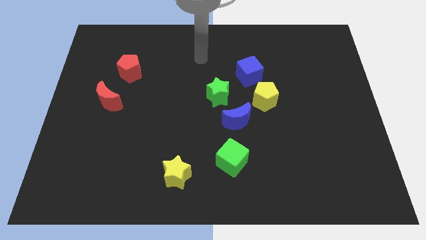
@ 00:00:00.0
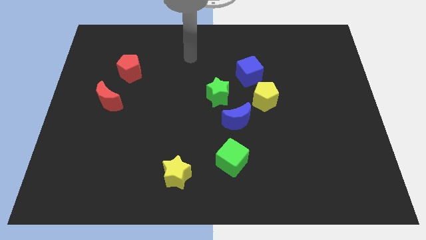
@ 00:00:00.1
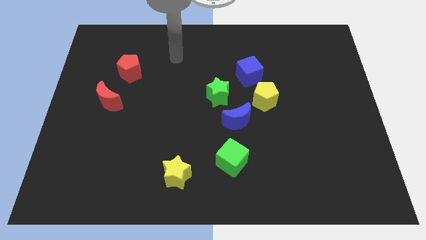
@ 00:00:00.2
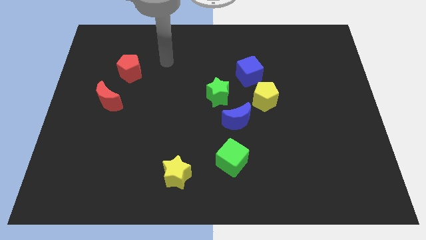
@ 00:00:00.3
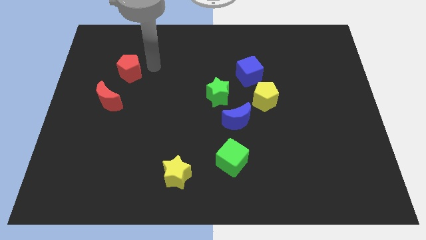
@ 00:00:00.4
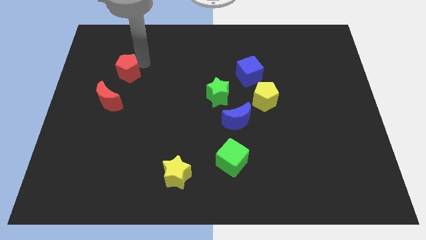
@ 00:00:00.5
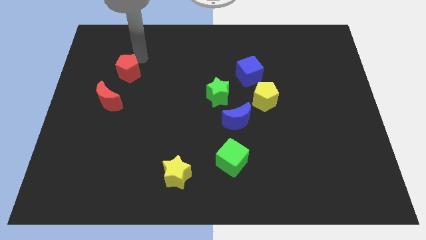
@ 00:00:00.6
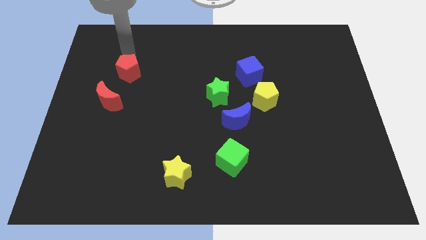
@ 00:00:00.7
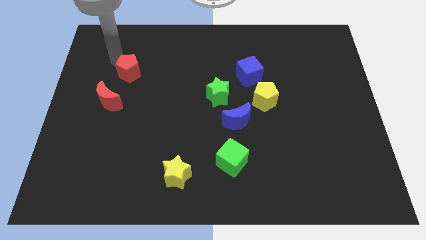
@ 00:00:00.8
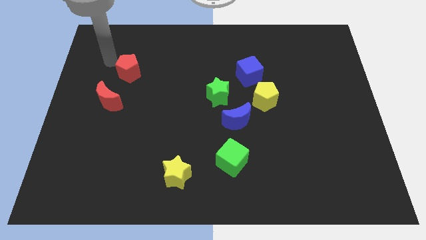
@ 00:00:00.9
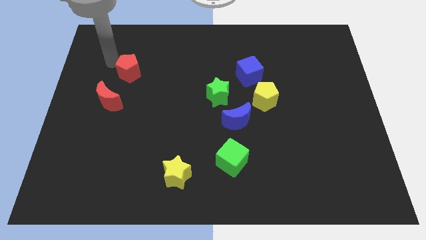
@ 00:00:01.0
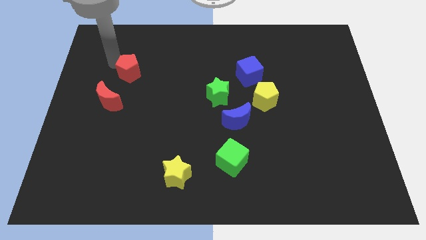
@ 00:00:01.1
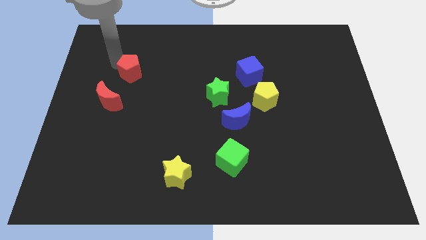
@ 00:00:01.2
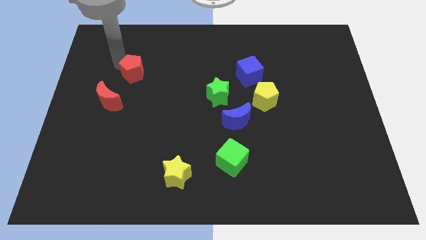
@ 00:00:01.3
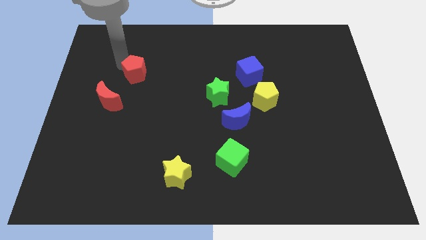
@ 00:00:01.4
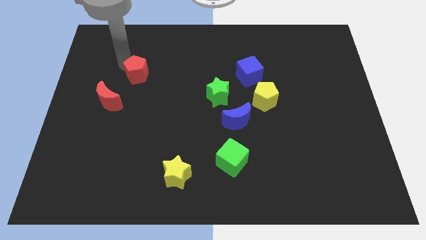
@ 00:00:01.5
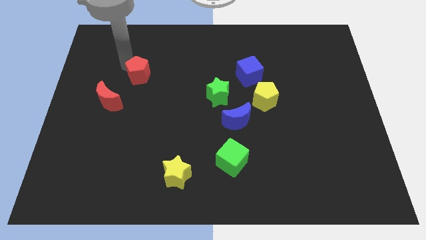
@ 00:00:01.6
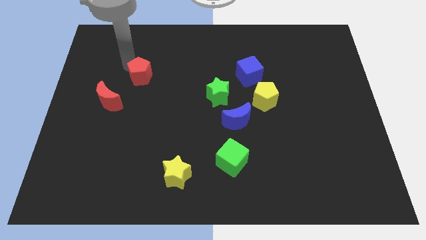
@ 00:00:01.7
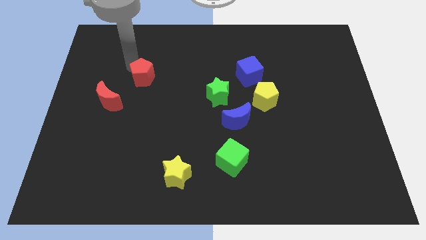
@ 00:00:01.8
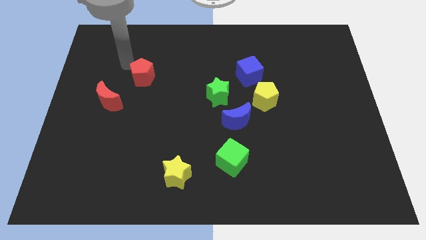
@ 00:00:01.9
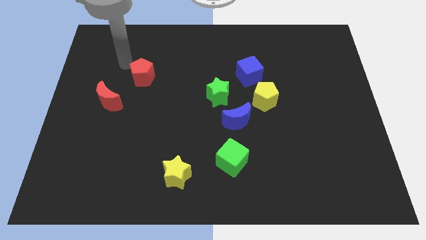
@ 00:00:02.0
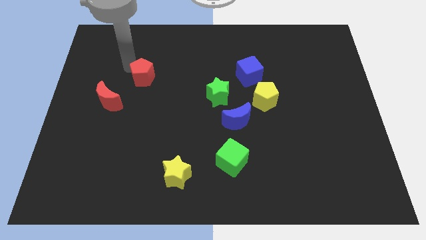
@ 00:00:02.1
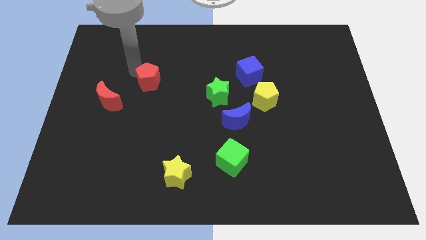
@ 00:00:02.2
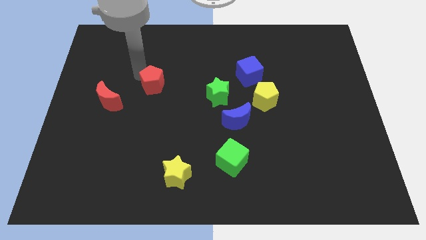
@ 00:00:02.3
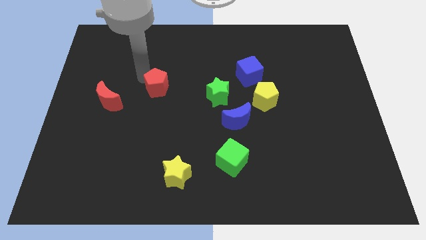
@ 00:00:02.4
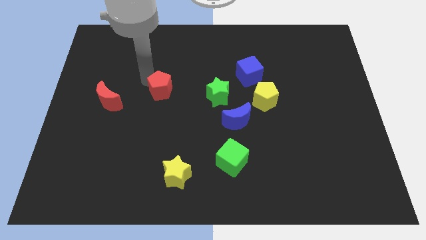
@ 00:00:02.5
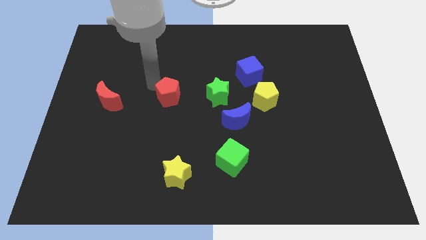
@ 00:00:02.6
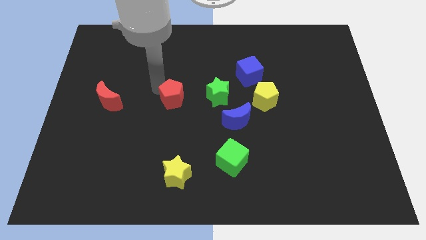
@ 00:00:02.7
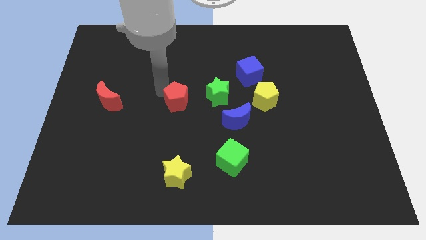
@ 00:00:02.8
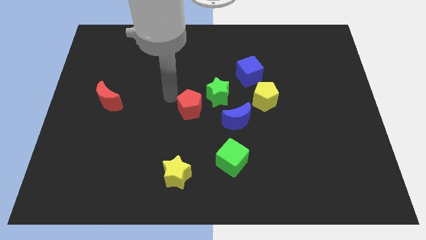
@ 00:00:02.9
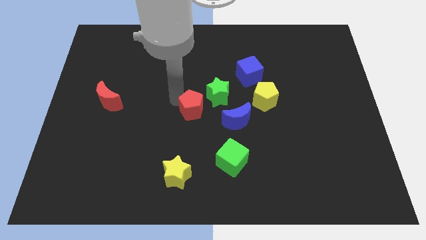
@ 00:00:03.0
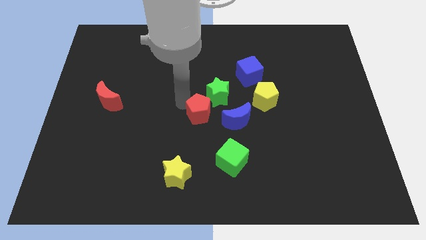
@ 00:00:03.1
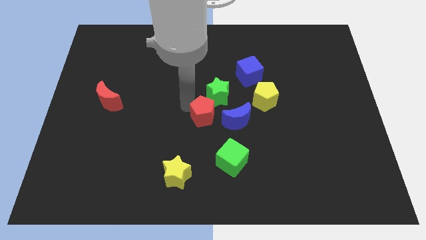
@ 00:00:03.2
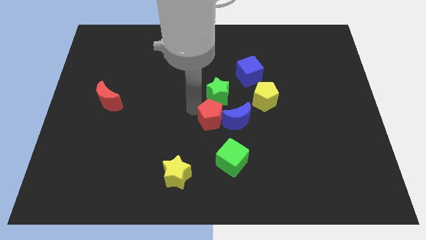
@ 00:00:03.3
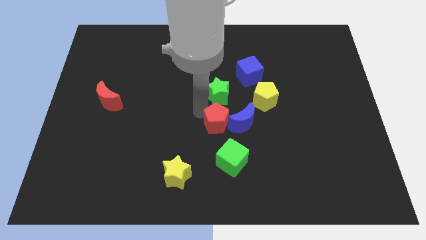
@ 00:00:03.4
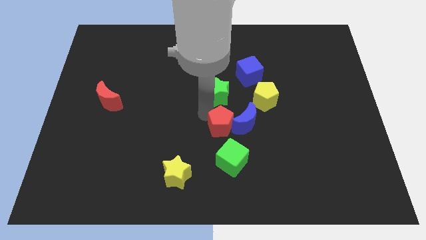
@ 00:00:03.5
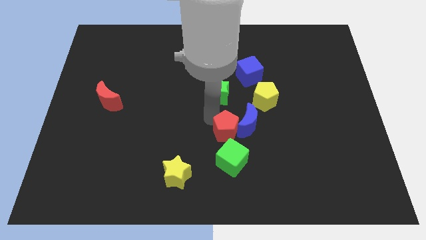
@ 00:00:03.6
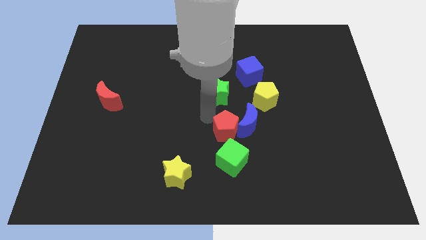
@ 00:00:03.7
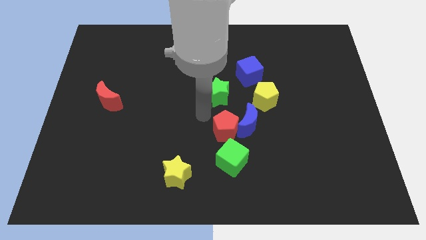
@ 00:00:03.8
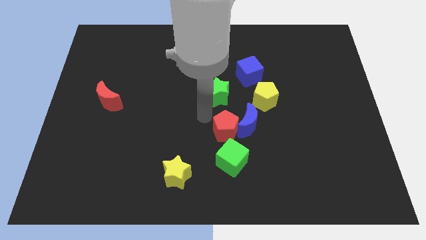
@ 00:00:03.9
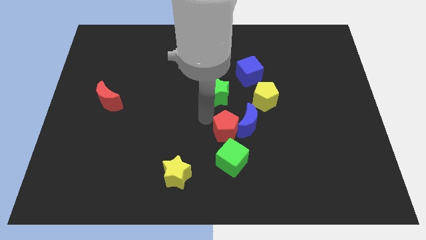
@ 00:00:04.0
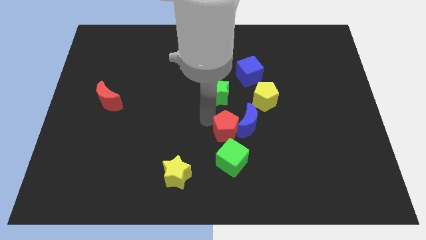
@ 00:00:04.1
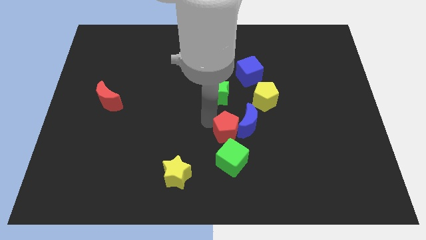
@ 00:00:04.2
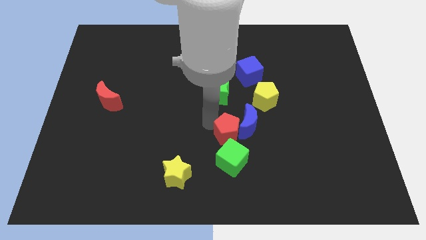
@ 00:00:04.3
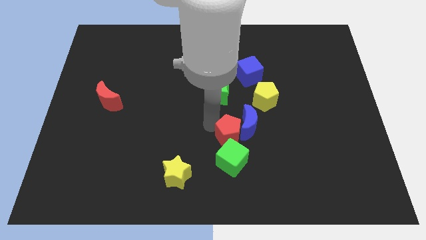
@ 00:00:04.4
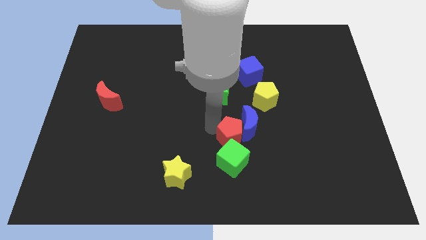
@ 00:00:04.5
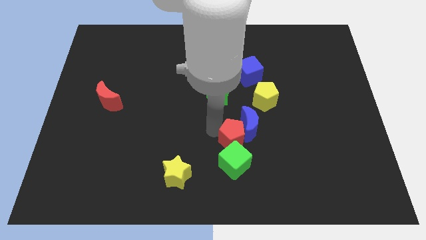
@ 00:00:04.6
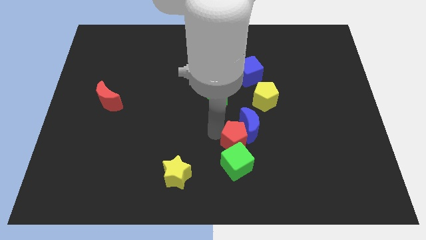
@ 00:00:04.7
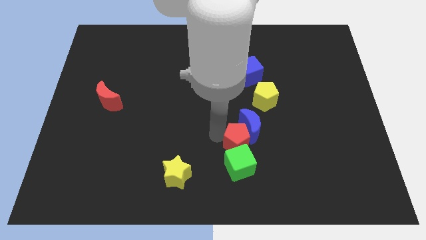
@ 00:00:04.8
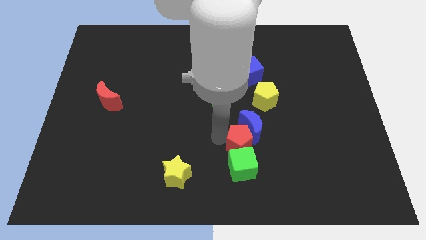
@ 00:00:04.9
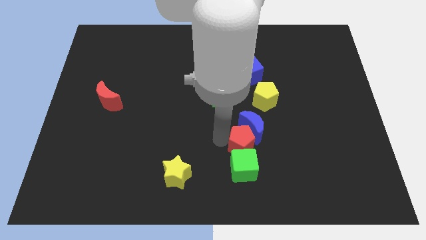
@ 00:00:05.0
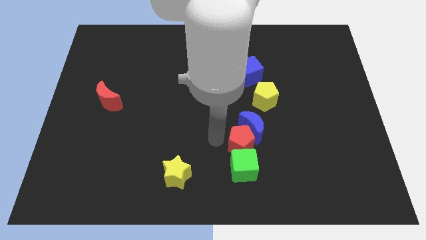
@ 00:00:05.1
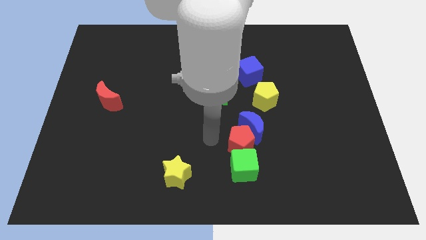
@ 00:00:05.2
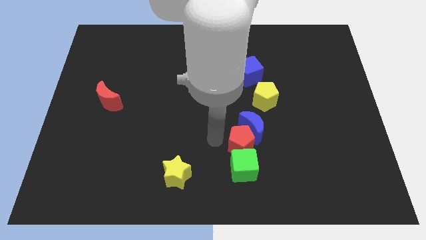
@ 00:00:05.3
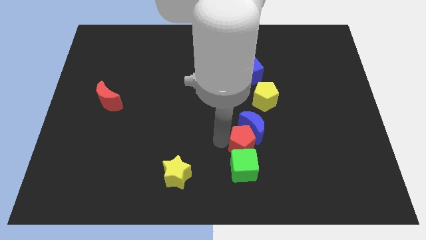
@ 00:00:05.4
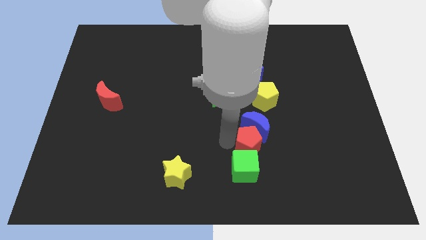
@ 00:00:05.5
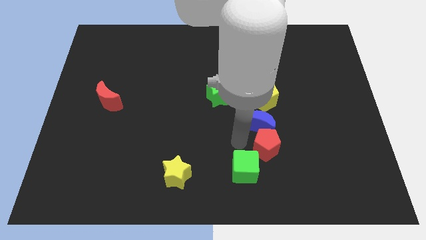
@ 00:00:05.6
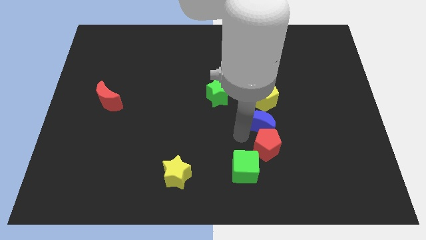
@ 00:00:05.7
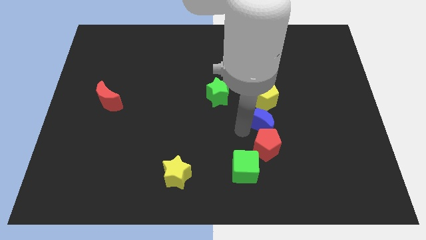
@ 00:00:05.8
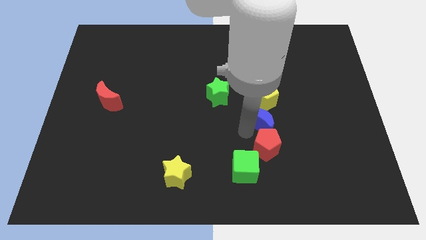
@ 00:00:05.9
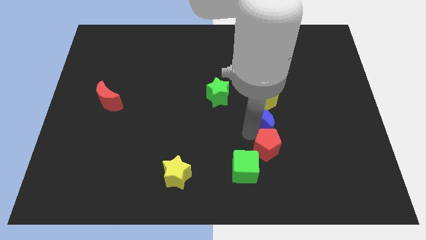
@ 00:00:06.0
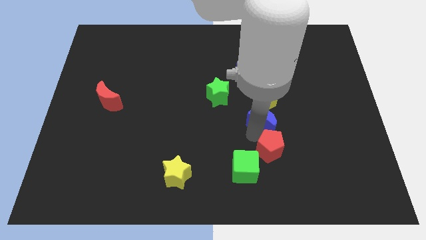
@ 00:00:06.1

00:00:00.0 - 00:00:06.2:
put the red pentagon right of the green cube

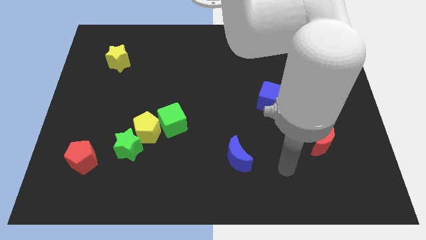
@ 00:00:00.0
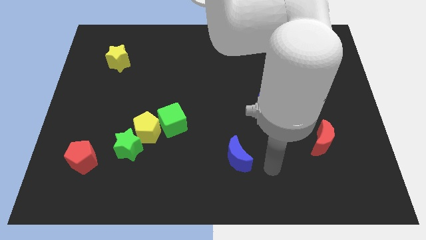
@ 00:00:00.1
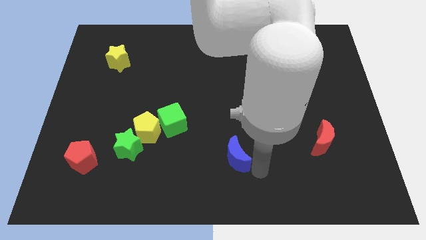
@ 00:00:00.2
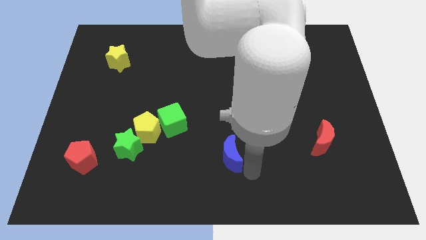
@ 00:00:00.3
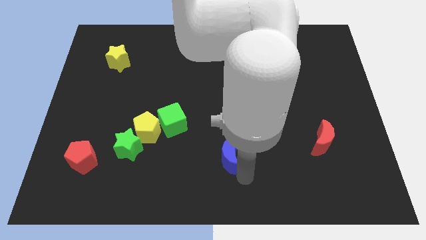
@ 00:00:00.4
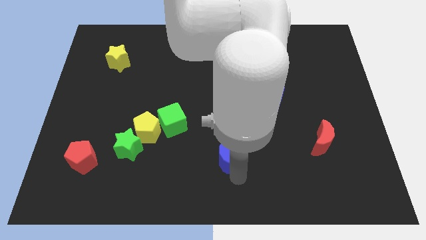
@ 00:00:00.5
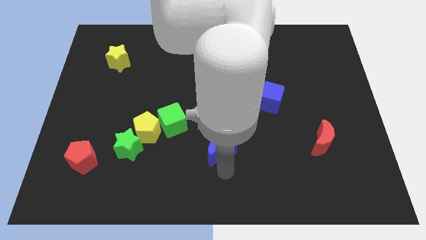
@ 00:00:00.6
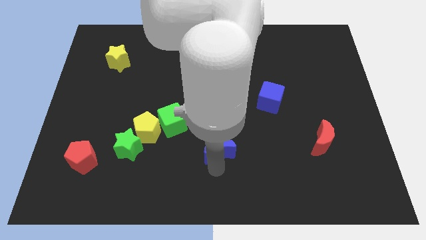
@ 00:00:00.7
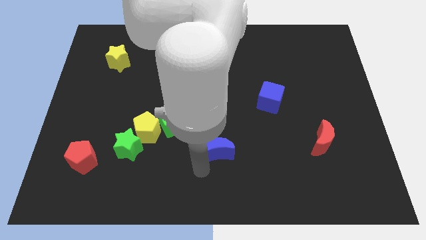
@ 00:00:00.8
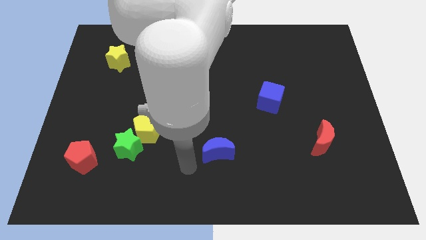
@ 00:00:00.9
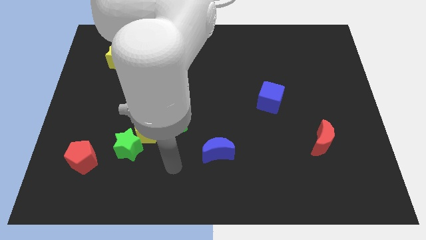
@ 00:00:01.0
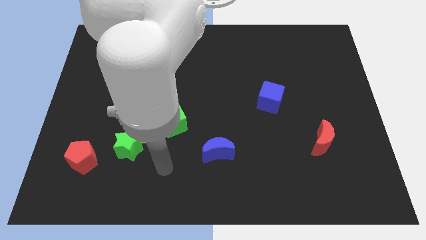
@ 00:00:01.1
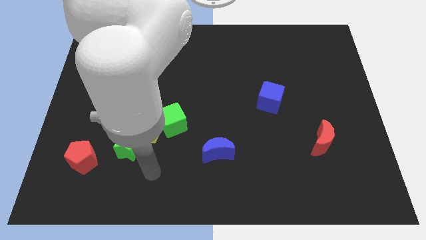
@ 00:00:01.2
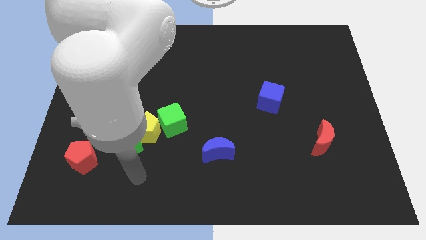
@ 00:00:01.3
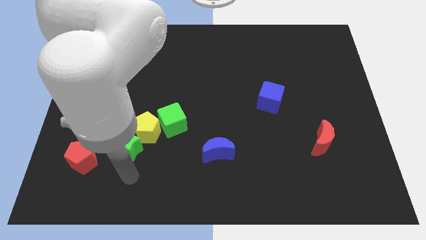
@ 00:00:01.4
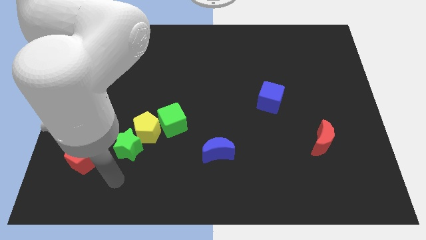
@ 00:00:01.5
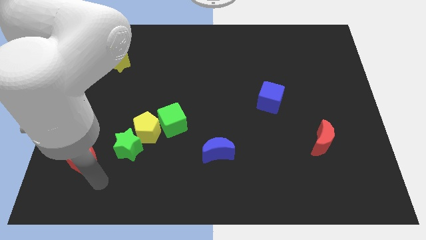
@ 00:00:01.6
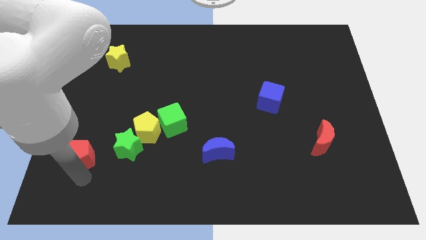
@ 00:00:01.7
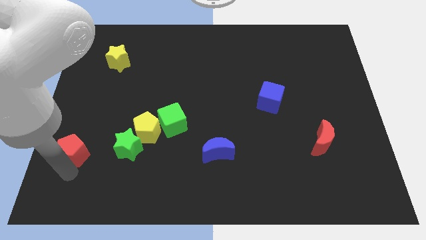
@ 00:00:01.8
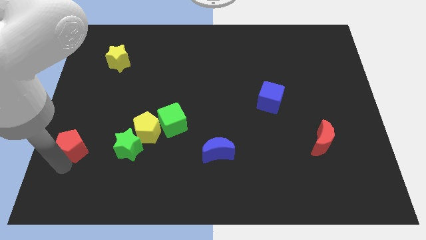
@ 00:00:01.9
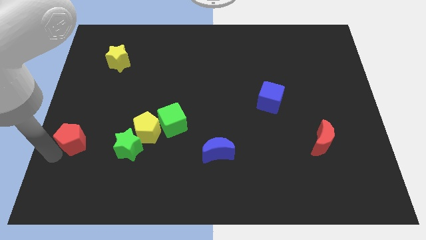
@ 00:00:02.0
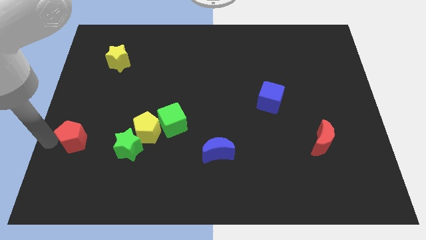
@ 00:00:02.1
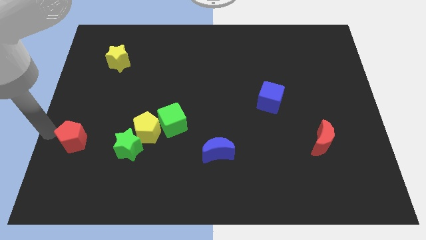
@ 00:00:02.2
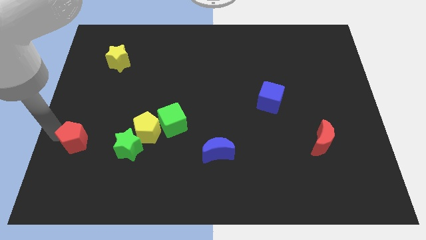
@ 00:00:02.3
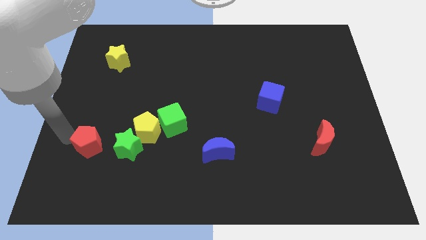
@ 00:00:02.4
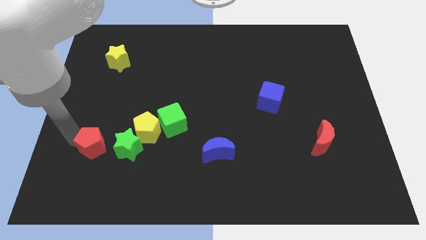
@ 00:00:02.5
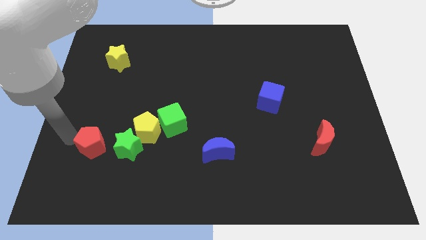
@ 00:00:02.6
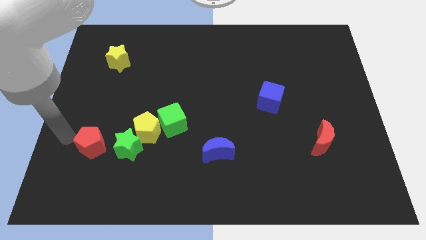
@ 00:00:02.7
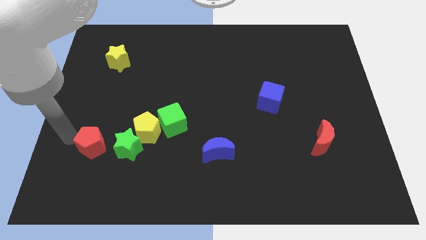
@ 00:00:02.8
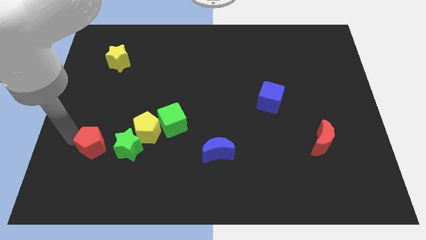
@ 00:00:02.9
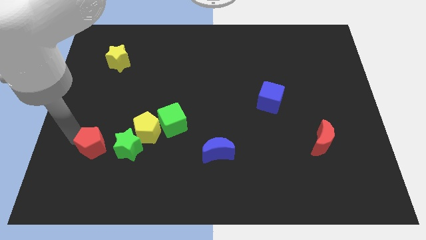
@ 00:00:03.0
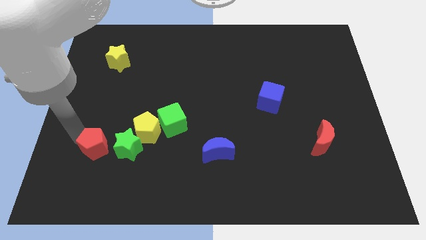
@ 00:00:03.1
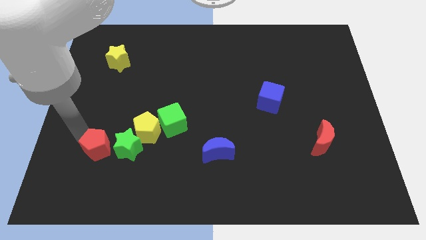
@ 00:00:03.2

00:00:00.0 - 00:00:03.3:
push the red pentagon to the bottom left of the yellow pentagon
